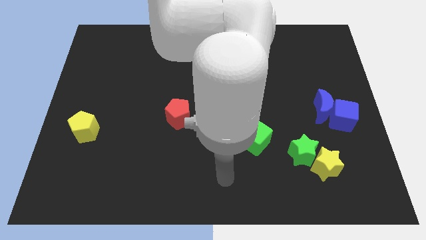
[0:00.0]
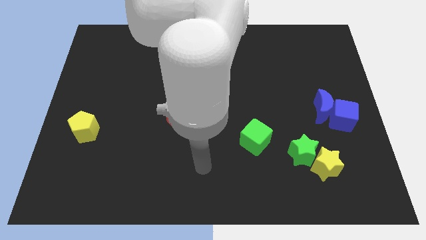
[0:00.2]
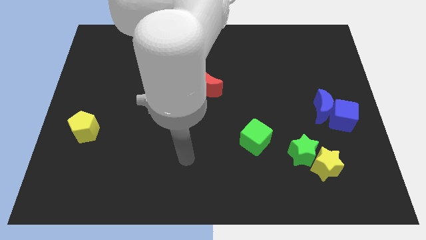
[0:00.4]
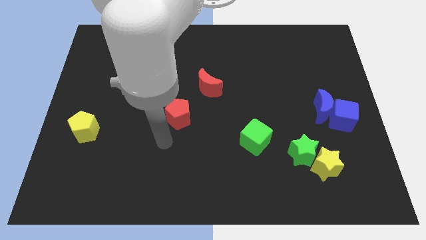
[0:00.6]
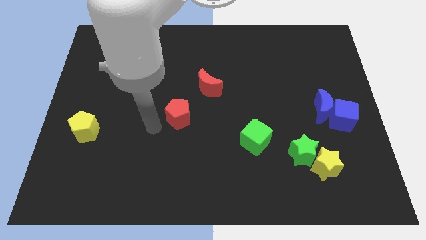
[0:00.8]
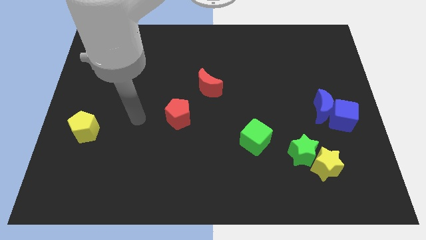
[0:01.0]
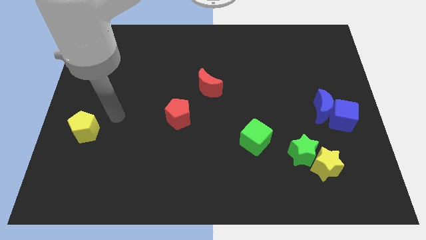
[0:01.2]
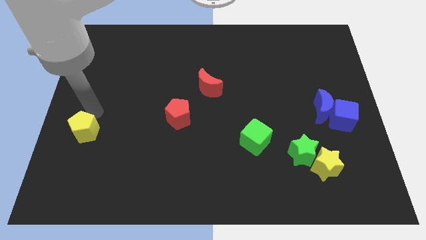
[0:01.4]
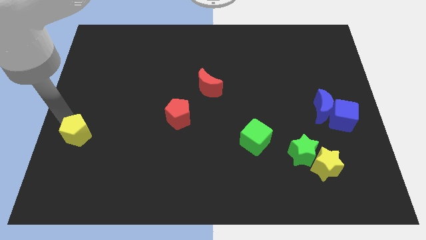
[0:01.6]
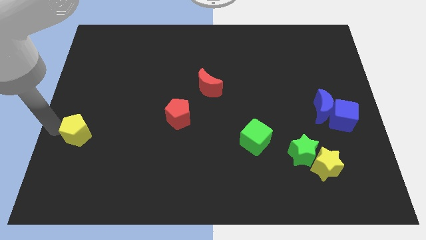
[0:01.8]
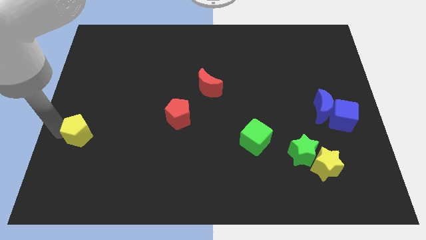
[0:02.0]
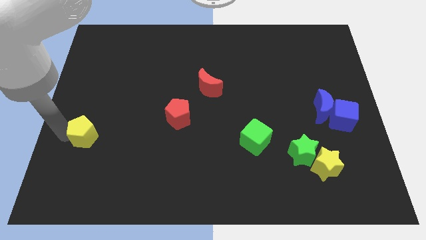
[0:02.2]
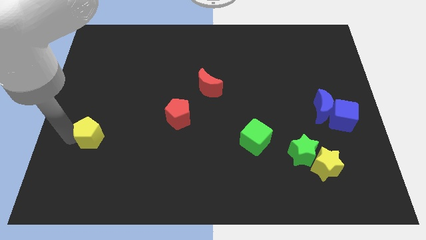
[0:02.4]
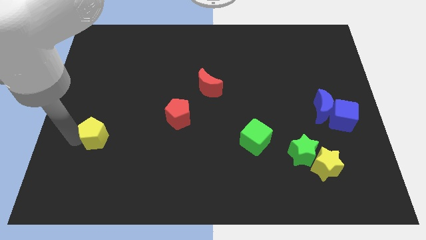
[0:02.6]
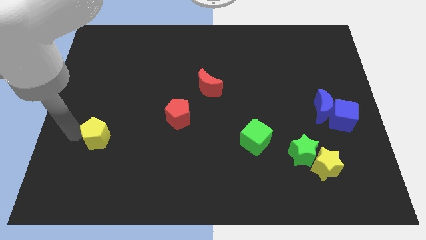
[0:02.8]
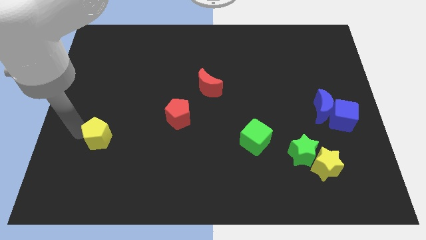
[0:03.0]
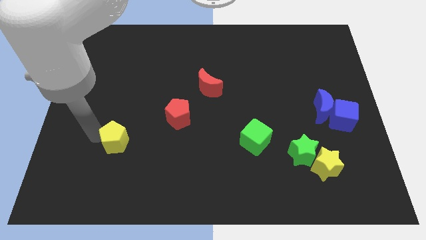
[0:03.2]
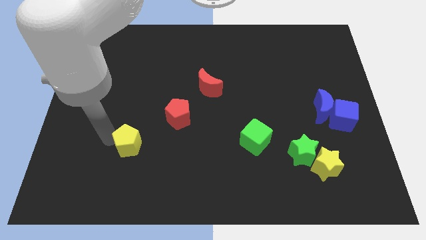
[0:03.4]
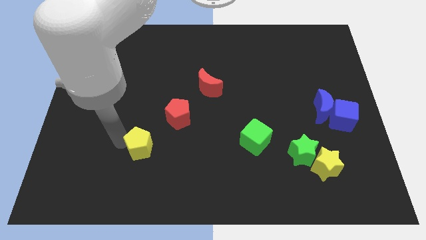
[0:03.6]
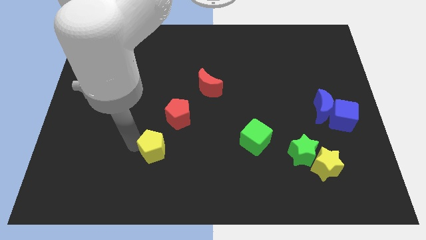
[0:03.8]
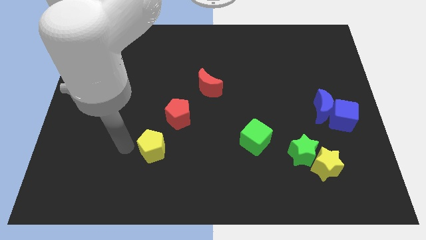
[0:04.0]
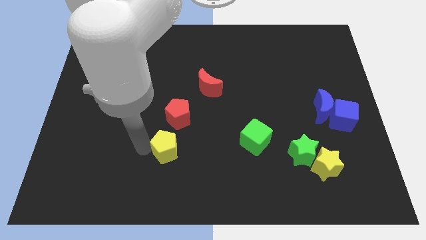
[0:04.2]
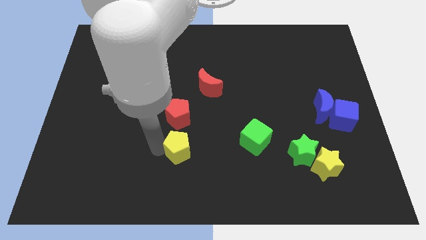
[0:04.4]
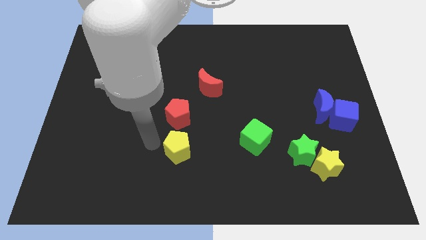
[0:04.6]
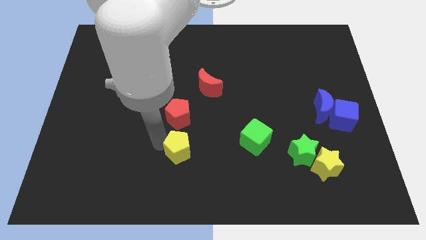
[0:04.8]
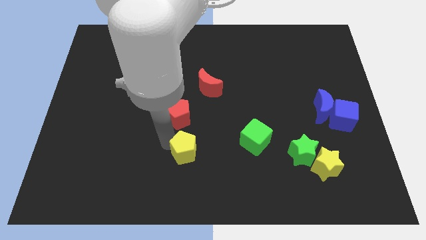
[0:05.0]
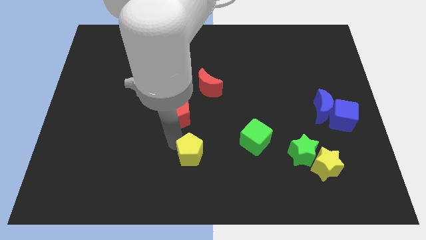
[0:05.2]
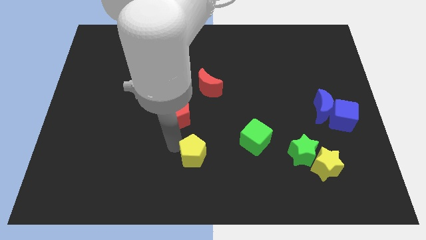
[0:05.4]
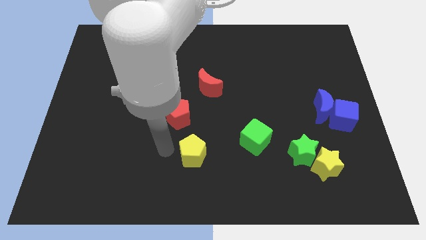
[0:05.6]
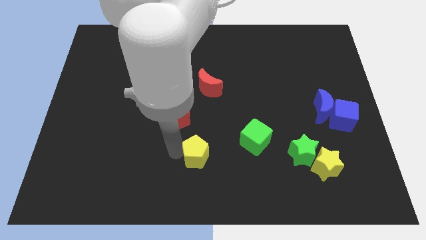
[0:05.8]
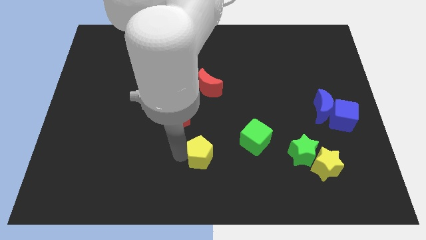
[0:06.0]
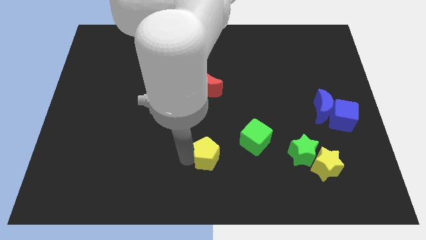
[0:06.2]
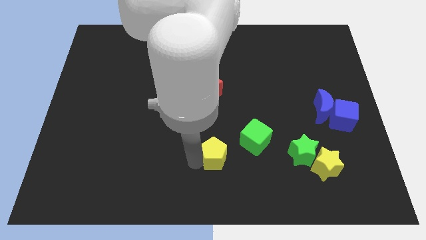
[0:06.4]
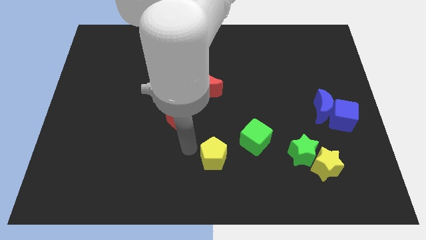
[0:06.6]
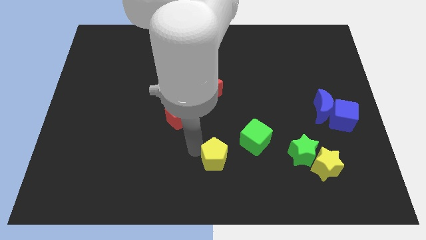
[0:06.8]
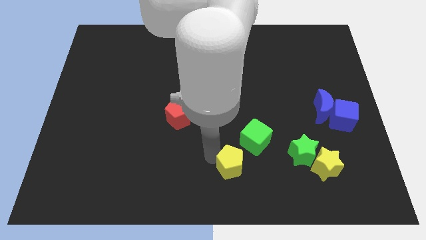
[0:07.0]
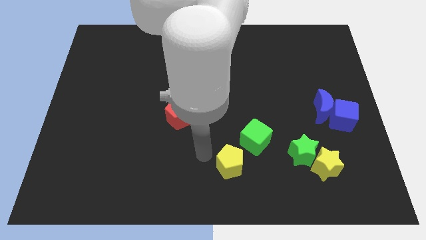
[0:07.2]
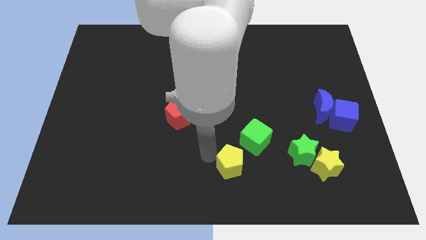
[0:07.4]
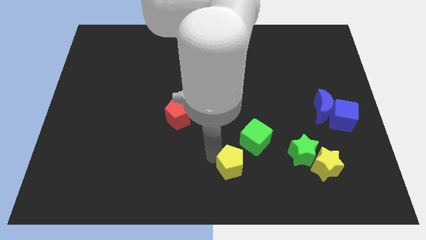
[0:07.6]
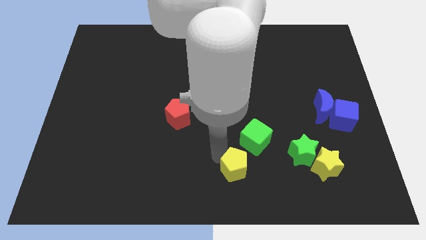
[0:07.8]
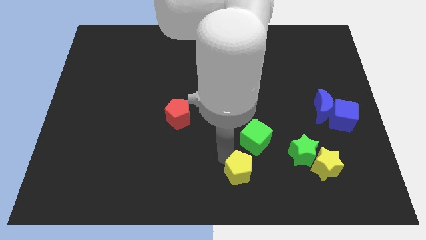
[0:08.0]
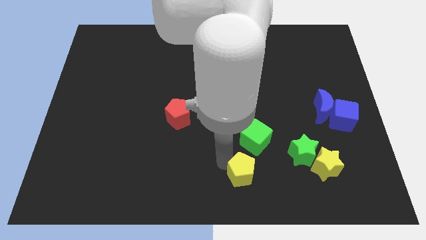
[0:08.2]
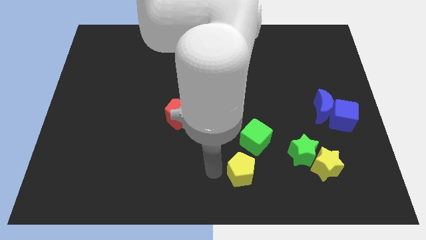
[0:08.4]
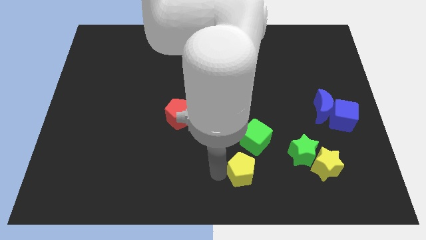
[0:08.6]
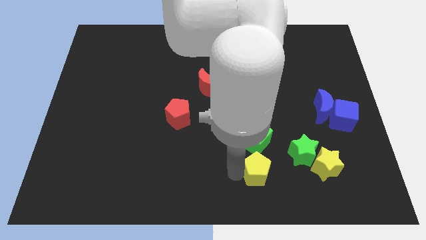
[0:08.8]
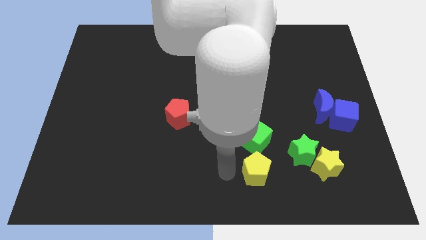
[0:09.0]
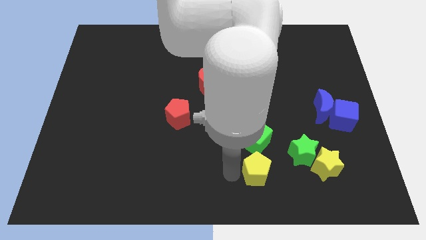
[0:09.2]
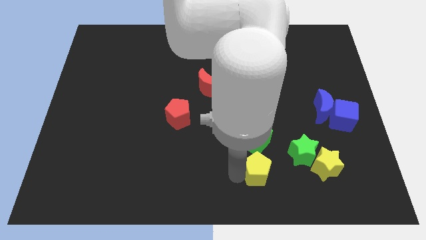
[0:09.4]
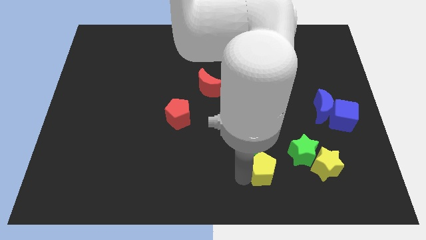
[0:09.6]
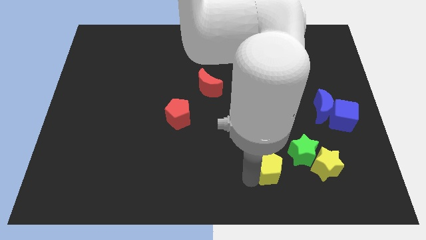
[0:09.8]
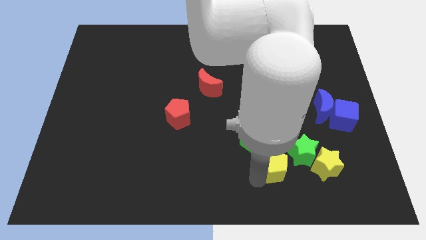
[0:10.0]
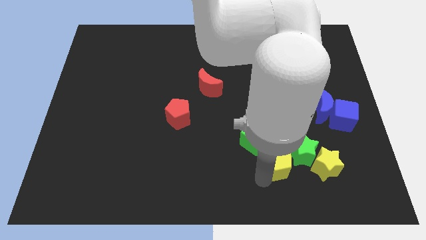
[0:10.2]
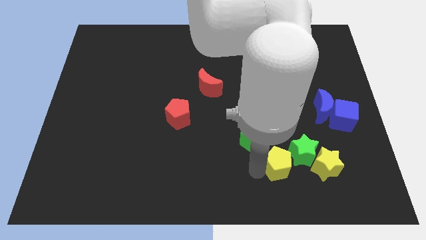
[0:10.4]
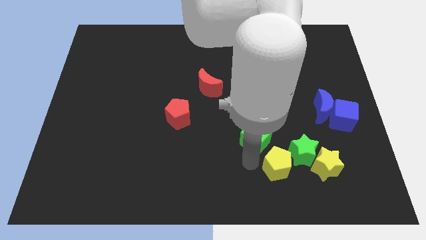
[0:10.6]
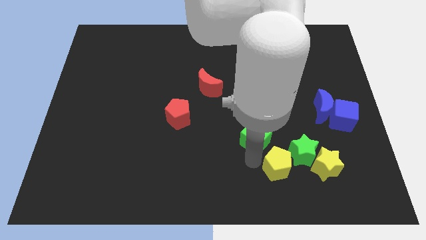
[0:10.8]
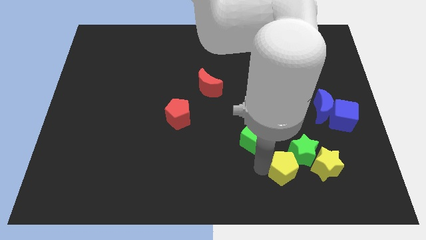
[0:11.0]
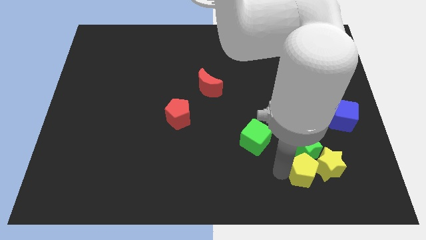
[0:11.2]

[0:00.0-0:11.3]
slide the yellow pentagon towards the yellow star
